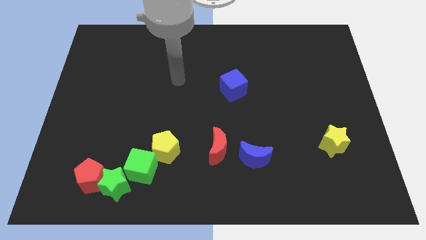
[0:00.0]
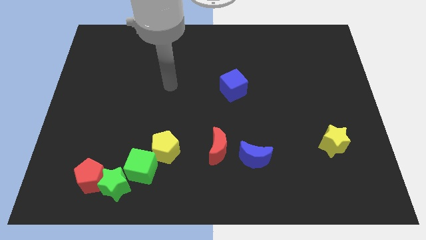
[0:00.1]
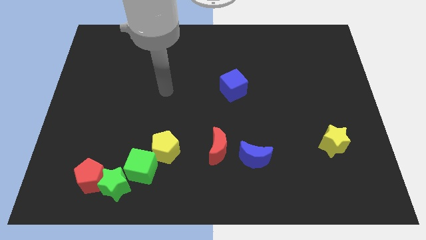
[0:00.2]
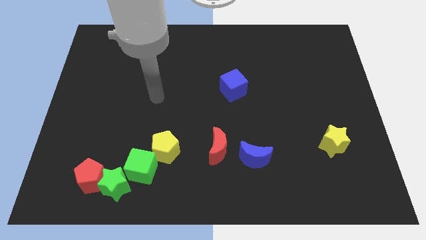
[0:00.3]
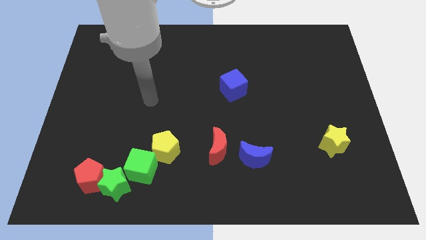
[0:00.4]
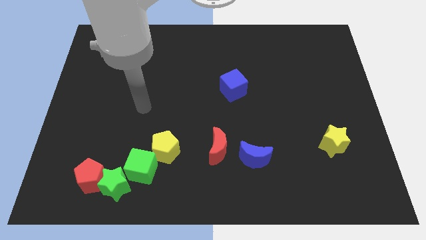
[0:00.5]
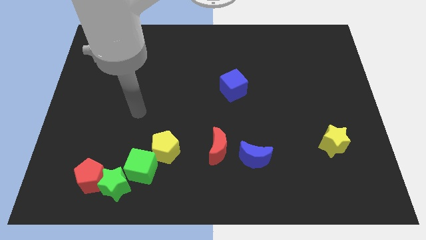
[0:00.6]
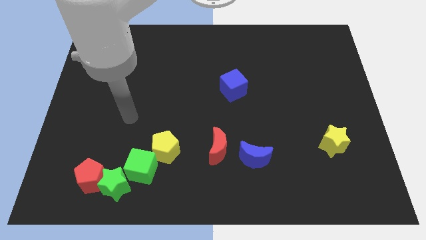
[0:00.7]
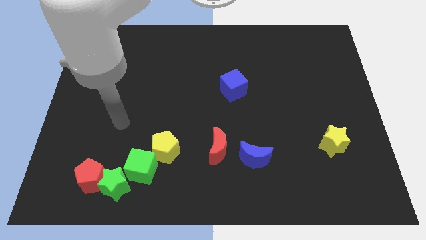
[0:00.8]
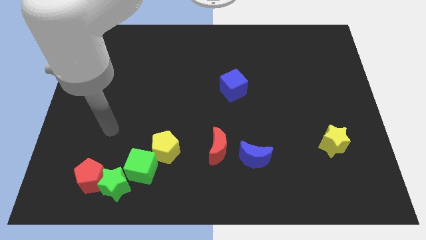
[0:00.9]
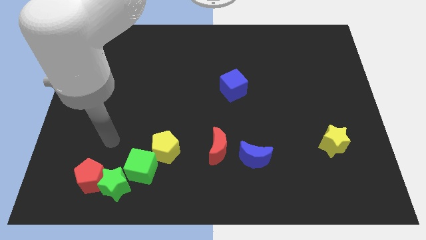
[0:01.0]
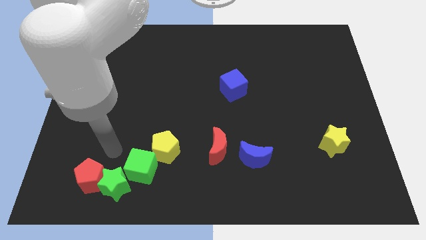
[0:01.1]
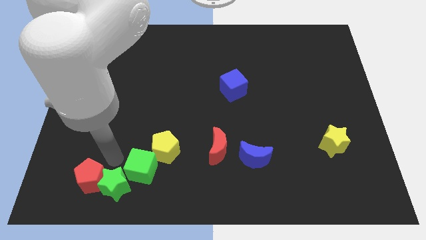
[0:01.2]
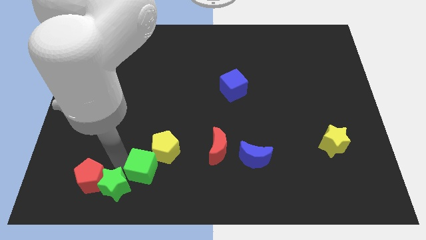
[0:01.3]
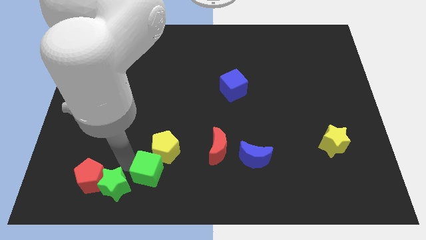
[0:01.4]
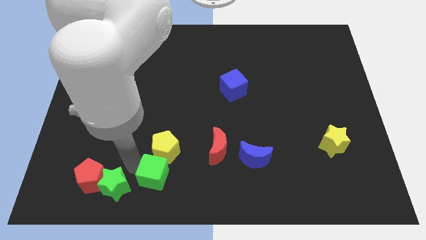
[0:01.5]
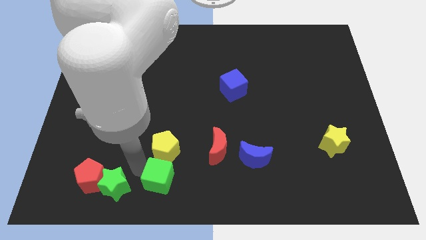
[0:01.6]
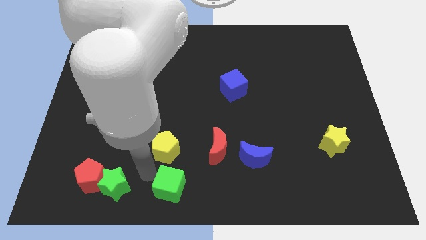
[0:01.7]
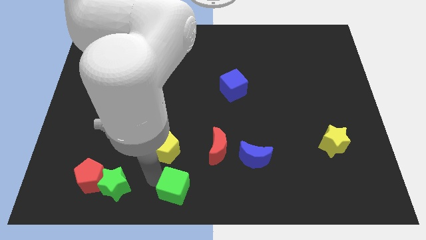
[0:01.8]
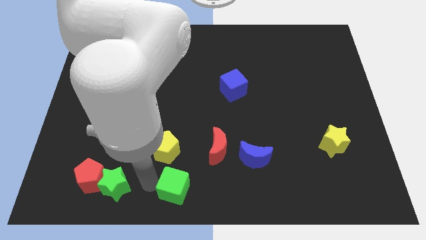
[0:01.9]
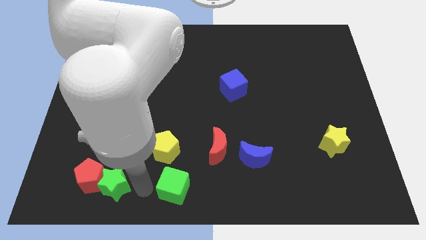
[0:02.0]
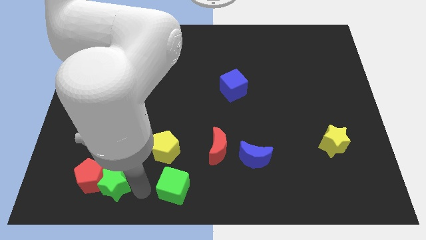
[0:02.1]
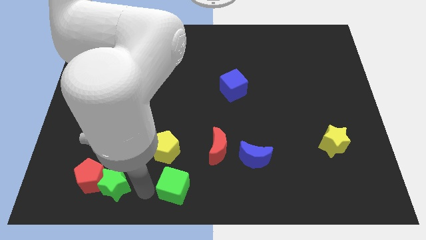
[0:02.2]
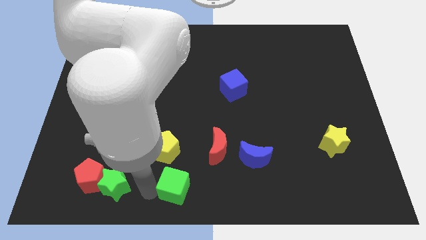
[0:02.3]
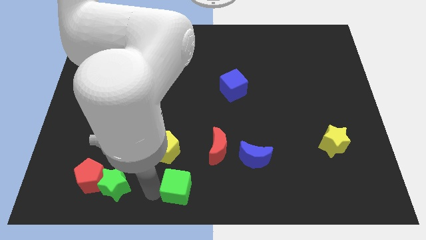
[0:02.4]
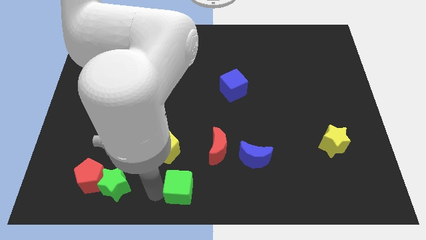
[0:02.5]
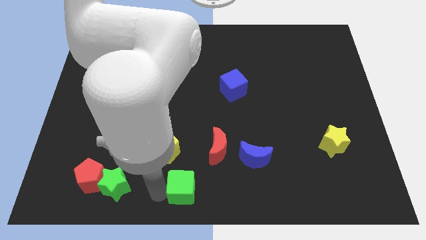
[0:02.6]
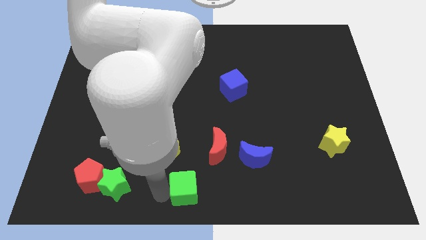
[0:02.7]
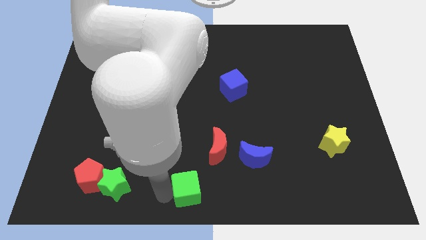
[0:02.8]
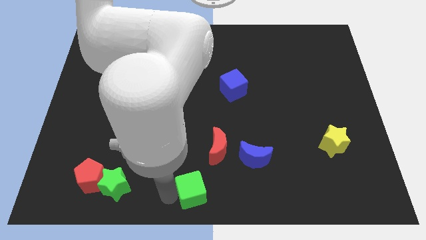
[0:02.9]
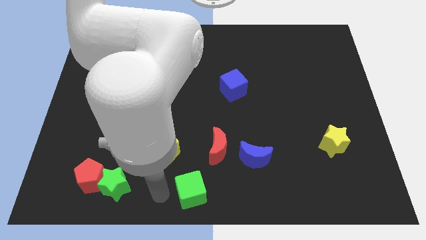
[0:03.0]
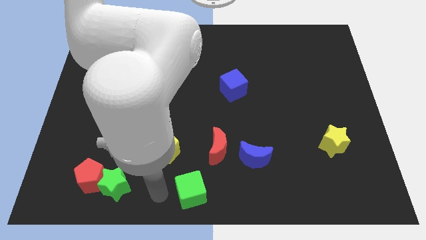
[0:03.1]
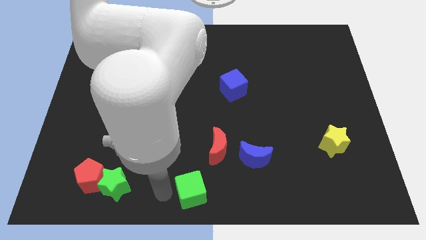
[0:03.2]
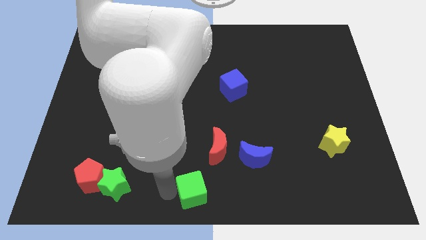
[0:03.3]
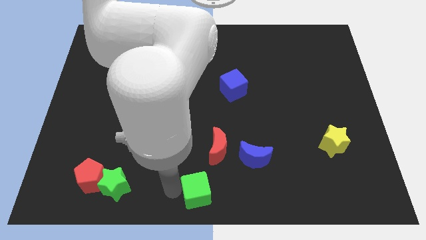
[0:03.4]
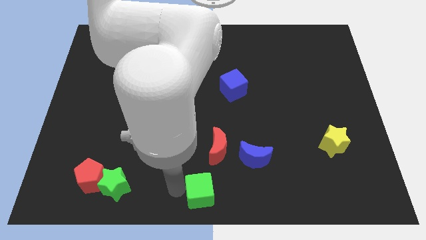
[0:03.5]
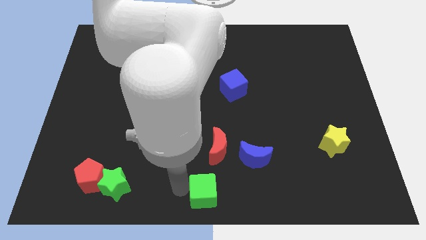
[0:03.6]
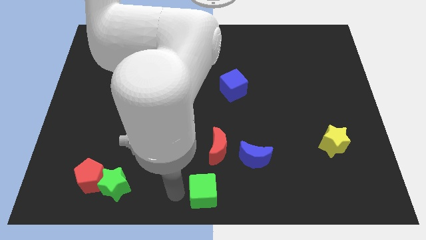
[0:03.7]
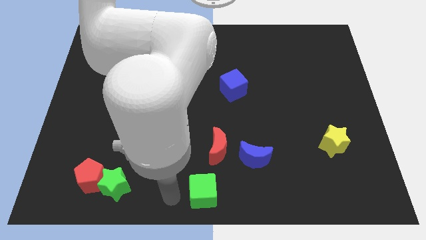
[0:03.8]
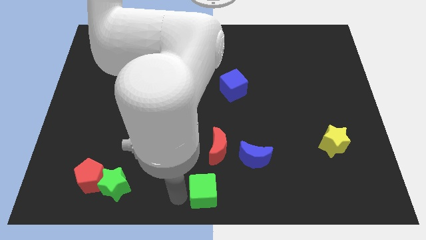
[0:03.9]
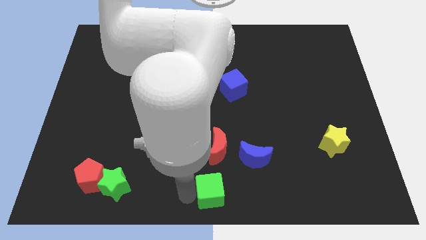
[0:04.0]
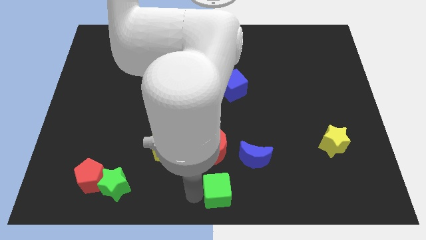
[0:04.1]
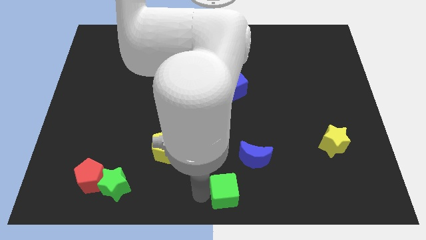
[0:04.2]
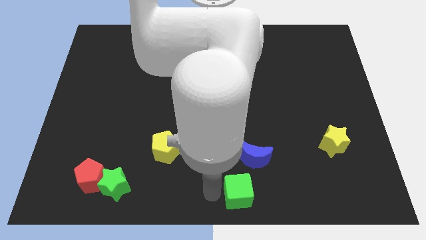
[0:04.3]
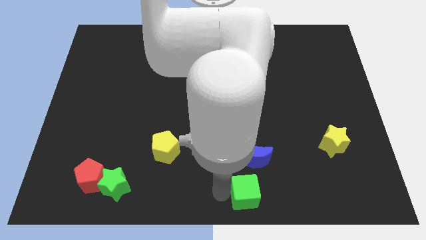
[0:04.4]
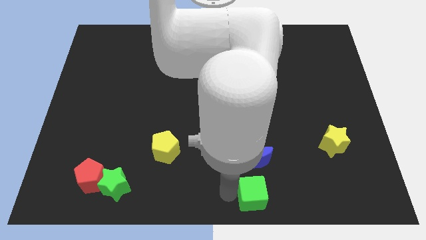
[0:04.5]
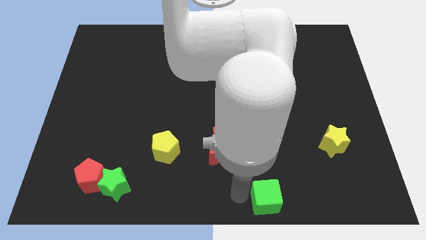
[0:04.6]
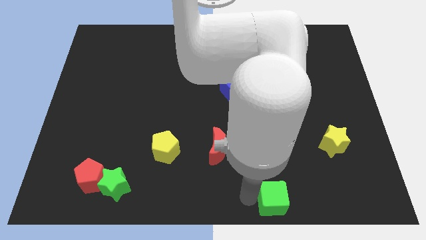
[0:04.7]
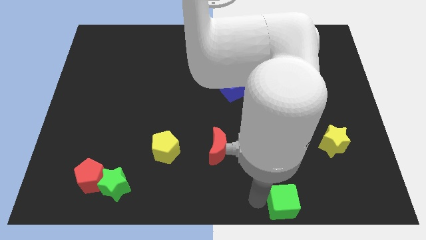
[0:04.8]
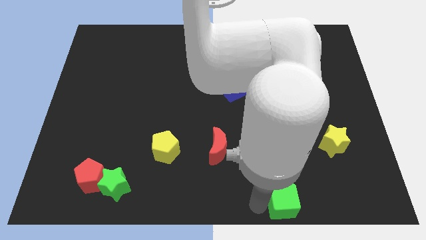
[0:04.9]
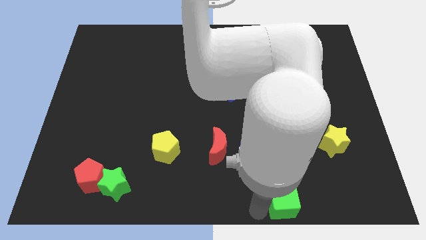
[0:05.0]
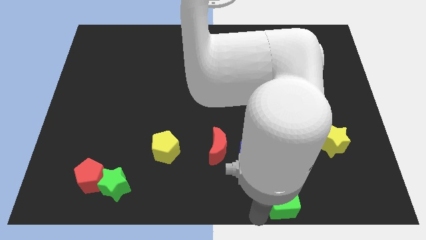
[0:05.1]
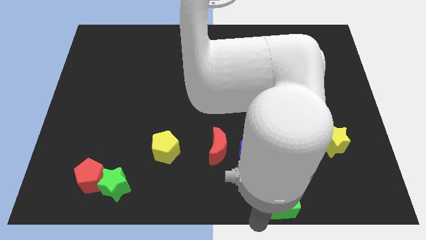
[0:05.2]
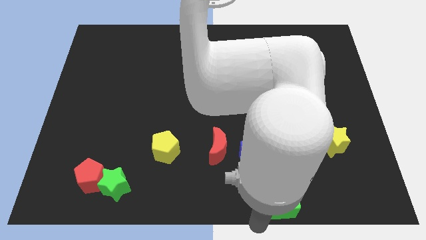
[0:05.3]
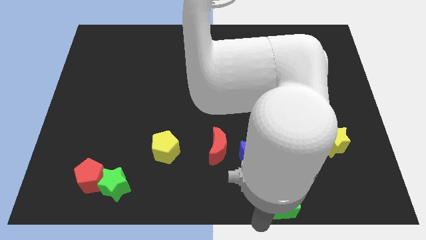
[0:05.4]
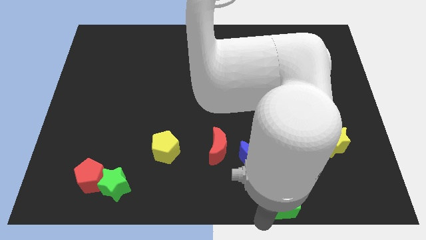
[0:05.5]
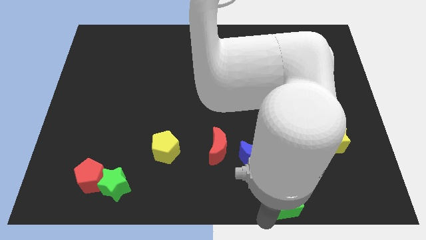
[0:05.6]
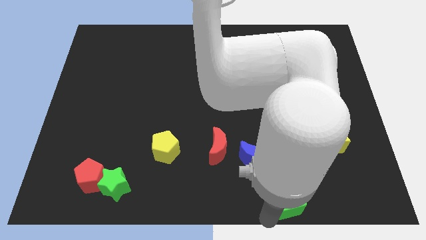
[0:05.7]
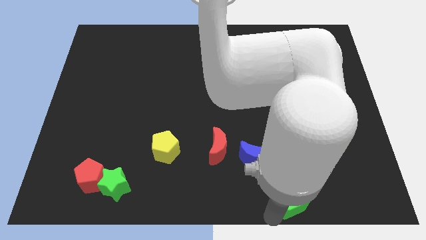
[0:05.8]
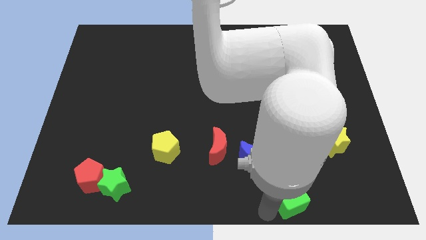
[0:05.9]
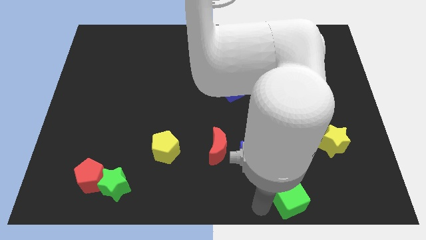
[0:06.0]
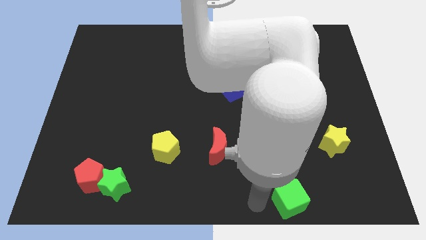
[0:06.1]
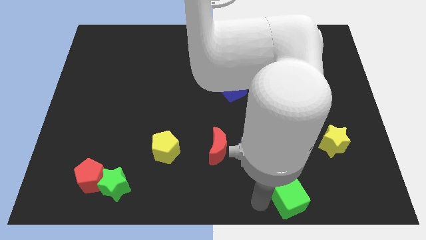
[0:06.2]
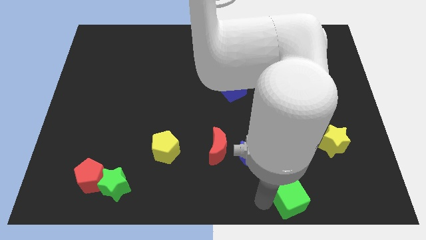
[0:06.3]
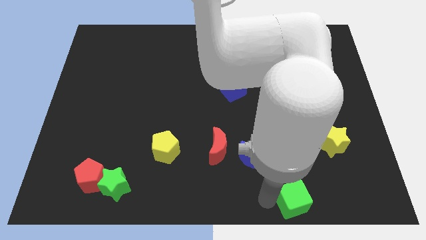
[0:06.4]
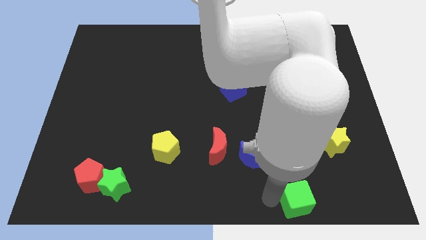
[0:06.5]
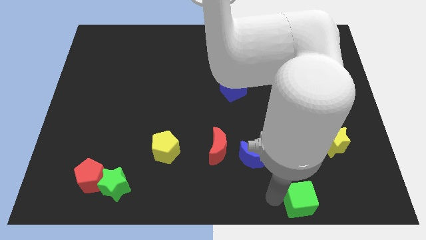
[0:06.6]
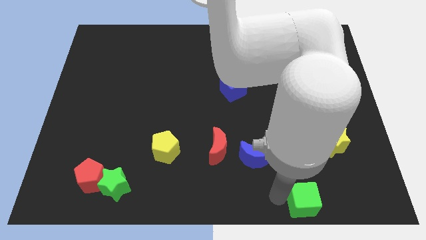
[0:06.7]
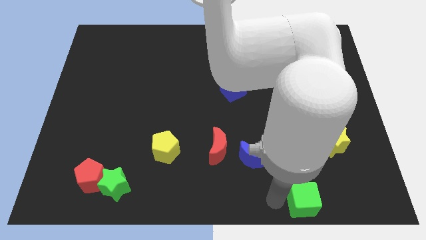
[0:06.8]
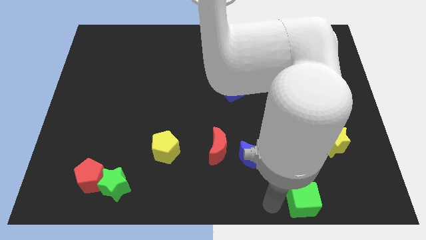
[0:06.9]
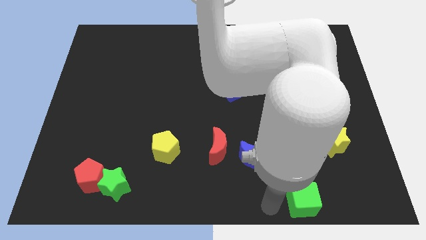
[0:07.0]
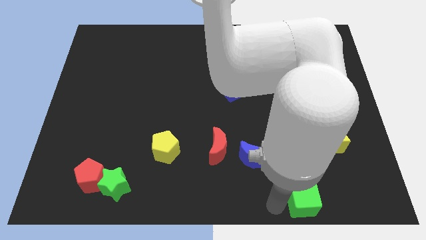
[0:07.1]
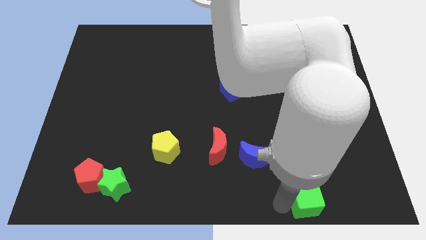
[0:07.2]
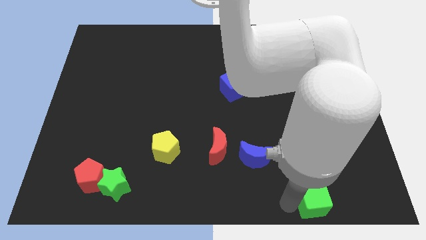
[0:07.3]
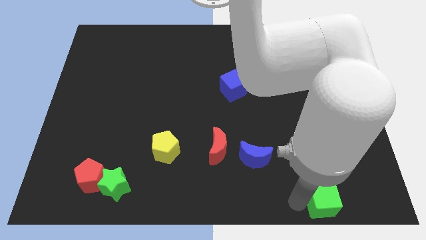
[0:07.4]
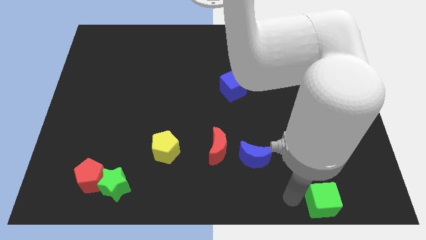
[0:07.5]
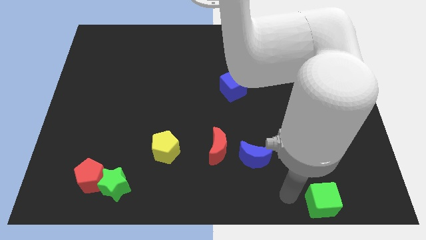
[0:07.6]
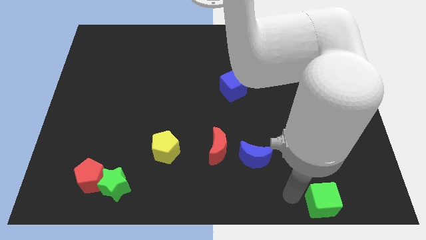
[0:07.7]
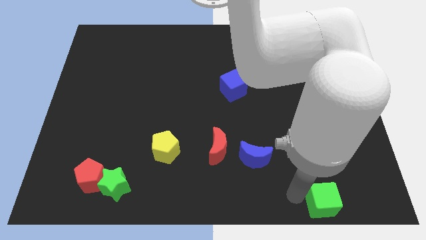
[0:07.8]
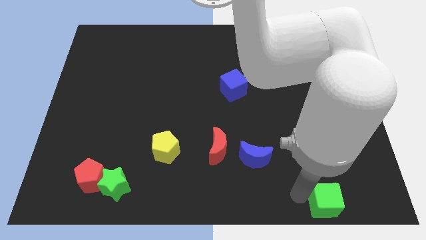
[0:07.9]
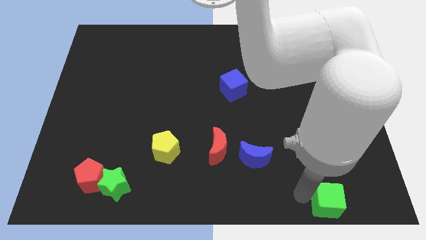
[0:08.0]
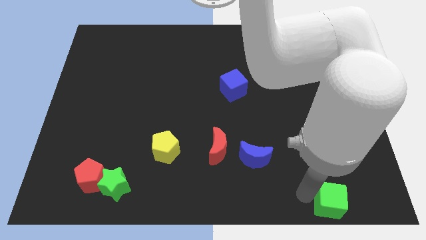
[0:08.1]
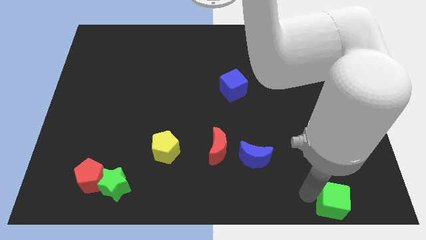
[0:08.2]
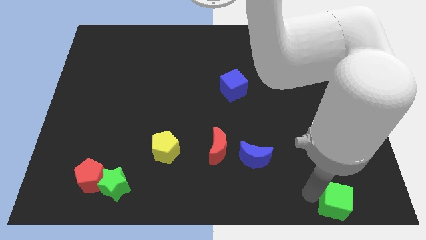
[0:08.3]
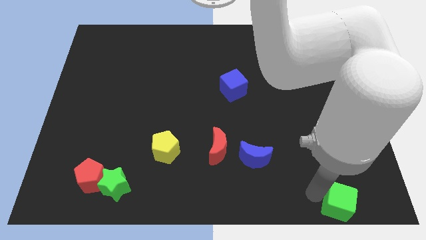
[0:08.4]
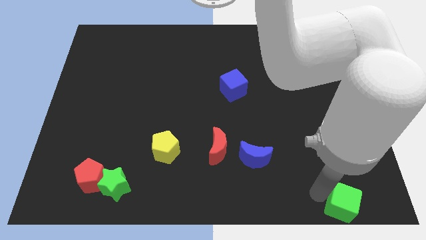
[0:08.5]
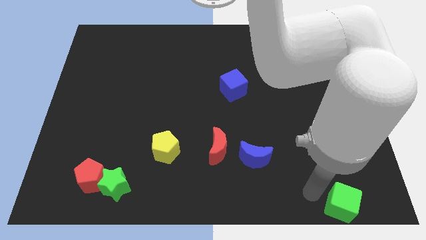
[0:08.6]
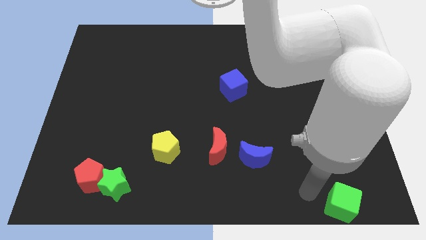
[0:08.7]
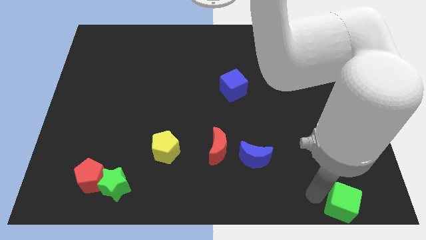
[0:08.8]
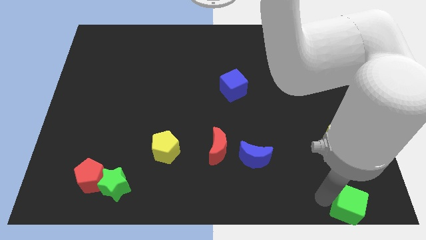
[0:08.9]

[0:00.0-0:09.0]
slide the green cube to the bottom right of the board
